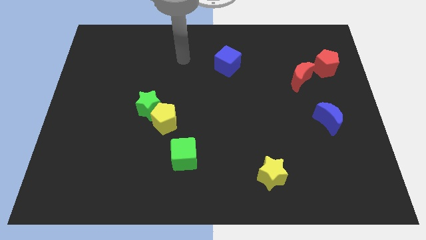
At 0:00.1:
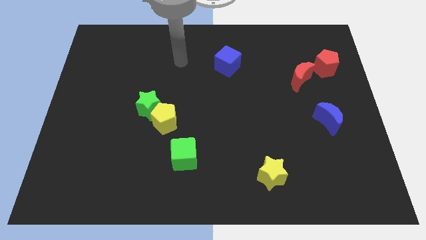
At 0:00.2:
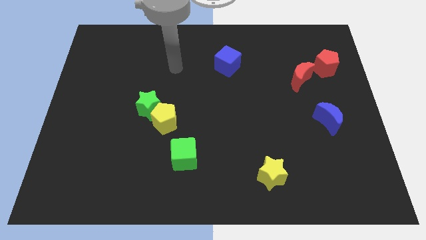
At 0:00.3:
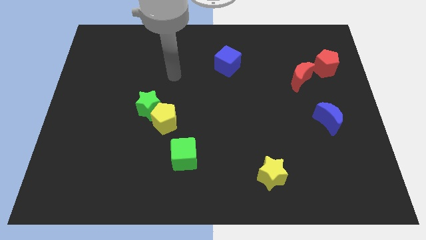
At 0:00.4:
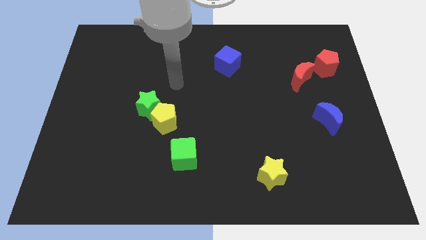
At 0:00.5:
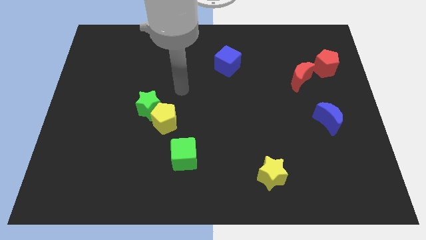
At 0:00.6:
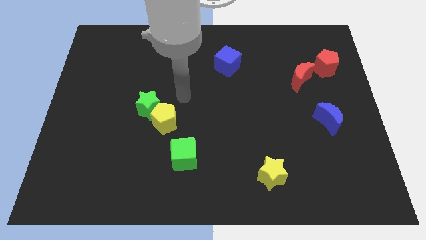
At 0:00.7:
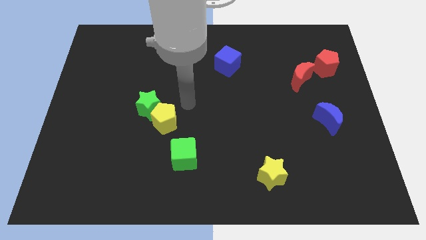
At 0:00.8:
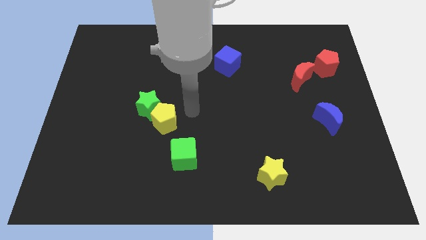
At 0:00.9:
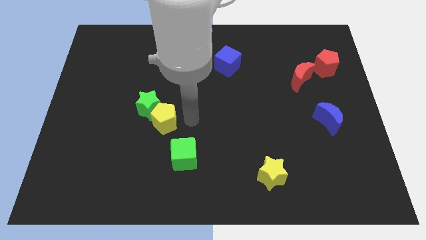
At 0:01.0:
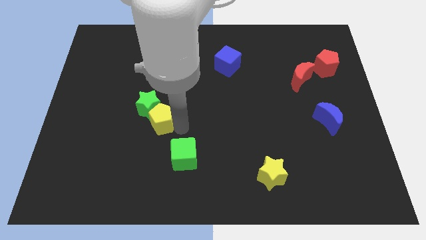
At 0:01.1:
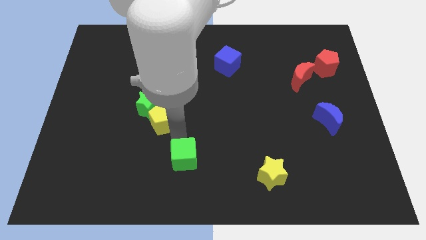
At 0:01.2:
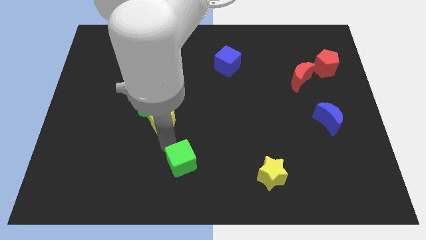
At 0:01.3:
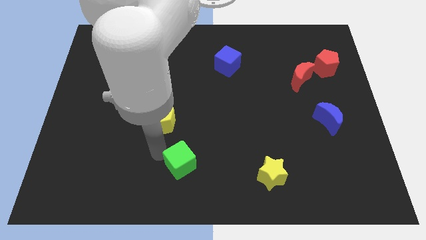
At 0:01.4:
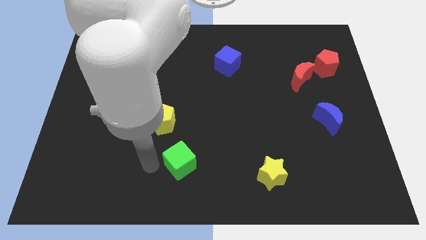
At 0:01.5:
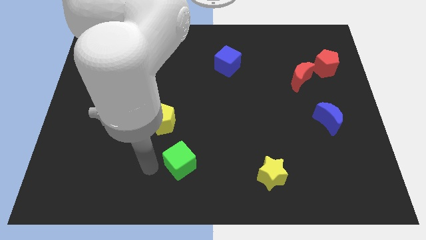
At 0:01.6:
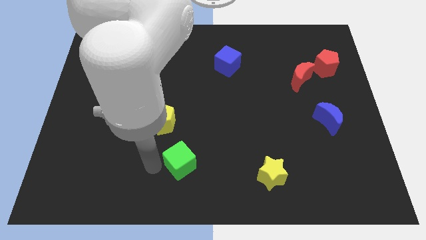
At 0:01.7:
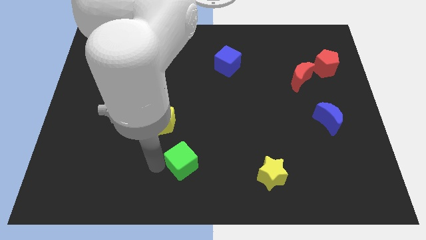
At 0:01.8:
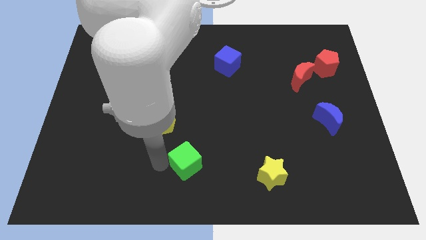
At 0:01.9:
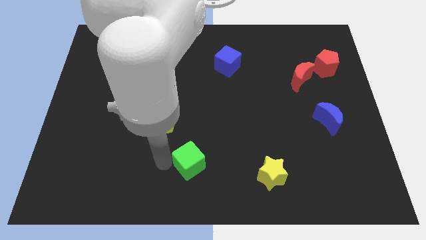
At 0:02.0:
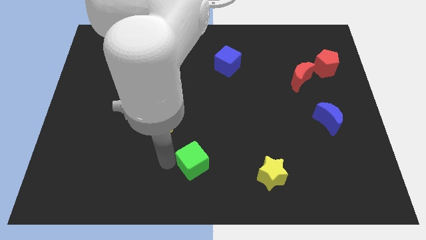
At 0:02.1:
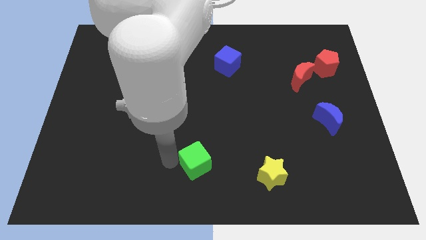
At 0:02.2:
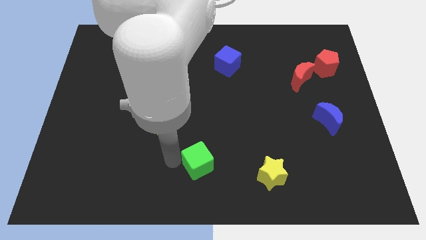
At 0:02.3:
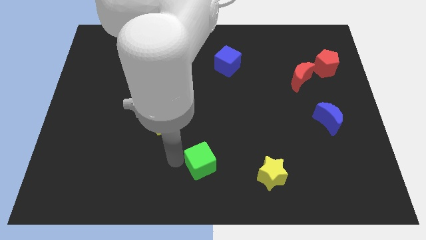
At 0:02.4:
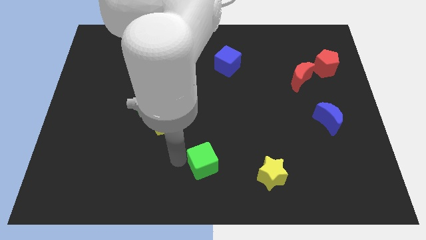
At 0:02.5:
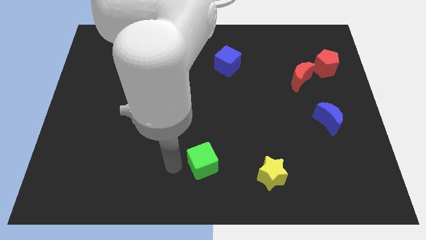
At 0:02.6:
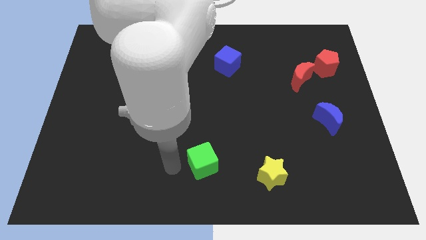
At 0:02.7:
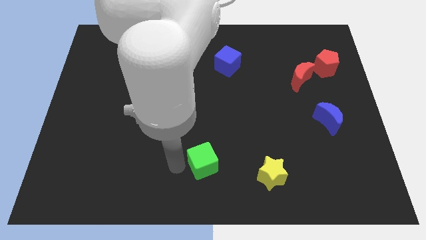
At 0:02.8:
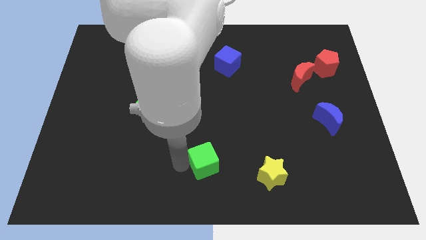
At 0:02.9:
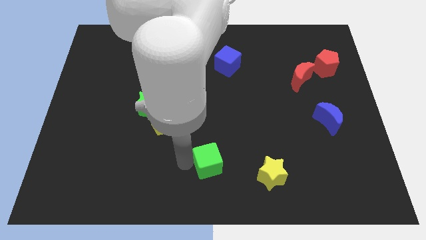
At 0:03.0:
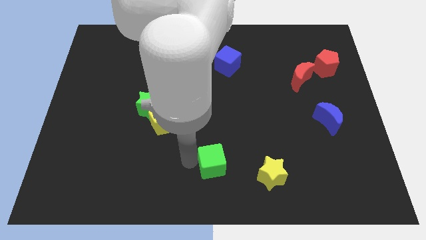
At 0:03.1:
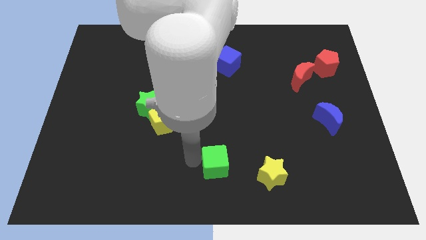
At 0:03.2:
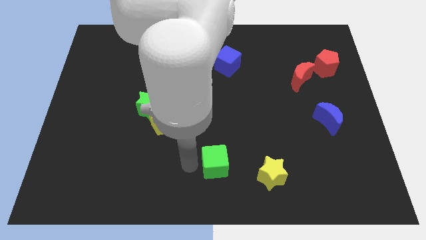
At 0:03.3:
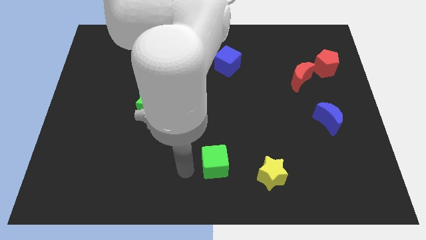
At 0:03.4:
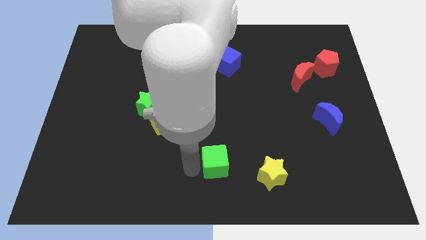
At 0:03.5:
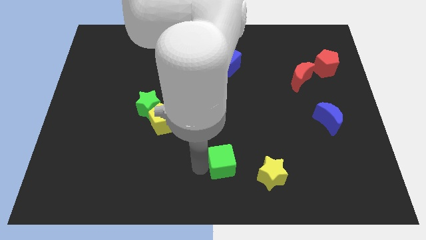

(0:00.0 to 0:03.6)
slide the green cube right a little

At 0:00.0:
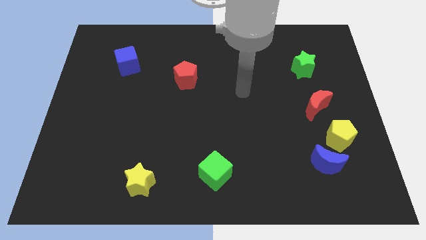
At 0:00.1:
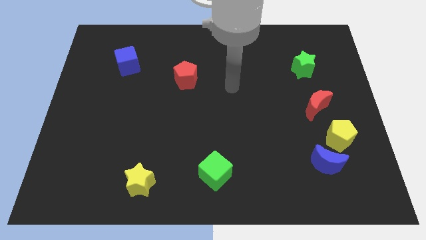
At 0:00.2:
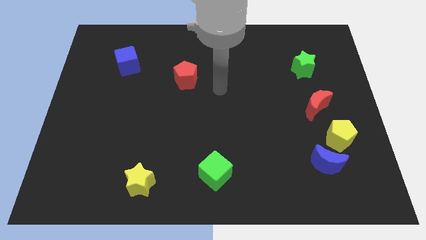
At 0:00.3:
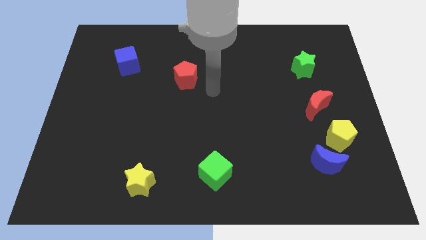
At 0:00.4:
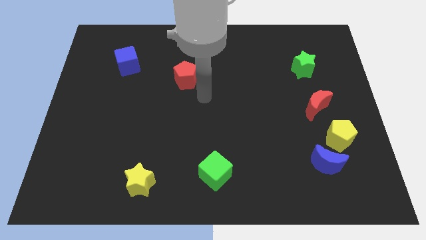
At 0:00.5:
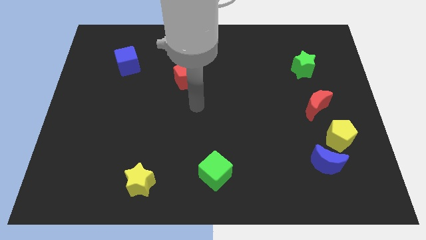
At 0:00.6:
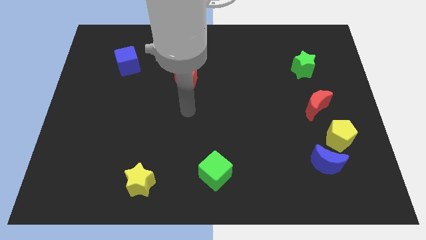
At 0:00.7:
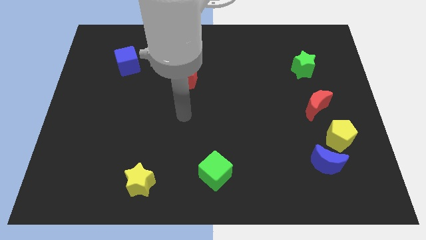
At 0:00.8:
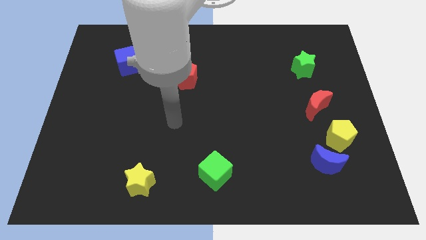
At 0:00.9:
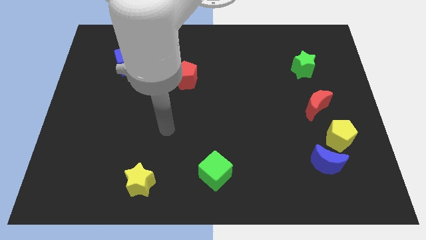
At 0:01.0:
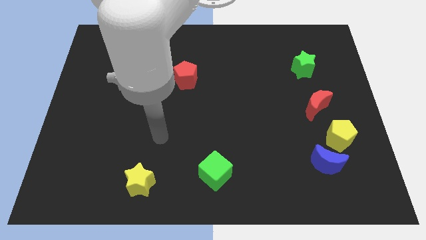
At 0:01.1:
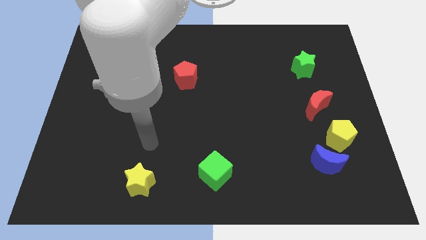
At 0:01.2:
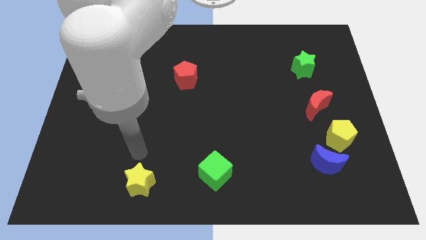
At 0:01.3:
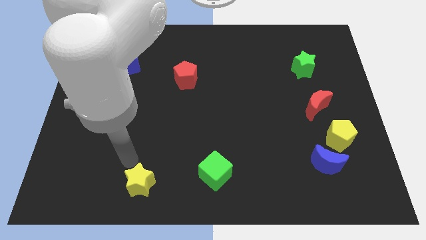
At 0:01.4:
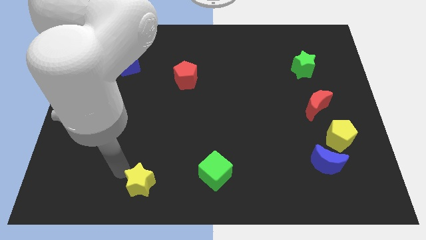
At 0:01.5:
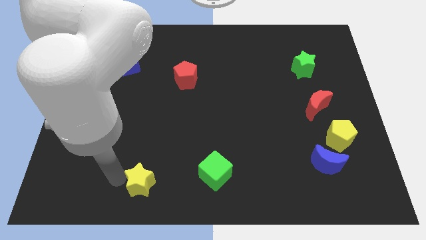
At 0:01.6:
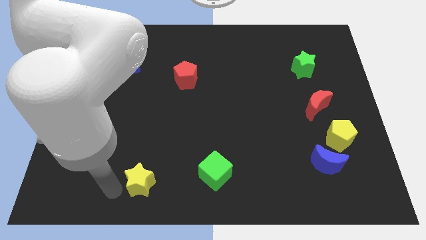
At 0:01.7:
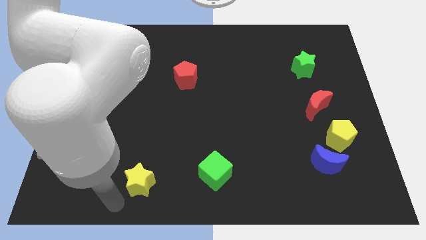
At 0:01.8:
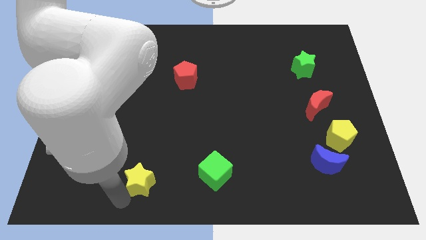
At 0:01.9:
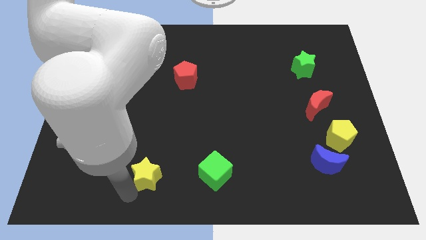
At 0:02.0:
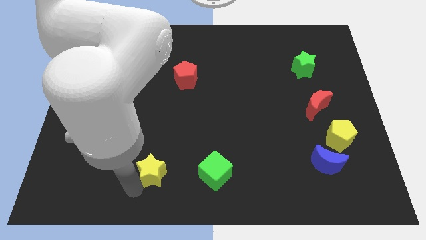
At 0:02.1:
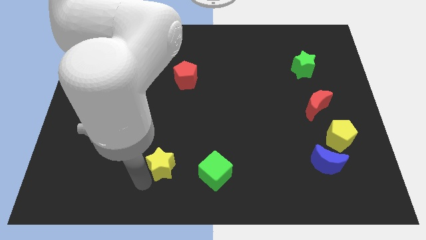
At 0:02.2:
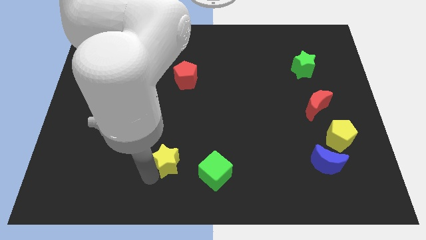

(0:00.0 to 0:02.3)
slide the yellow star upwards and then to the right a bit

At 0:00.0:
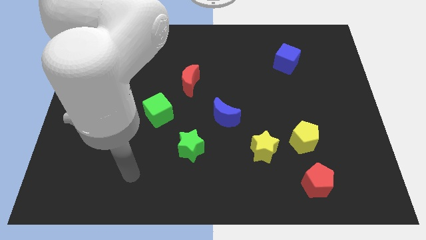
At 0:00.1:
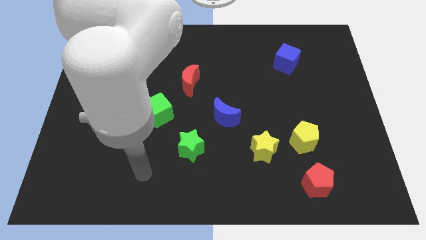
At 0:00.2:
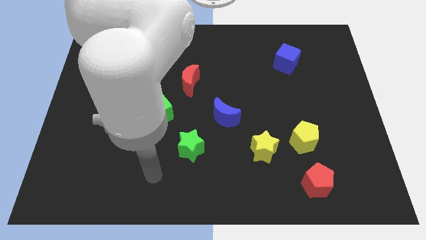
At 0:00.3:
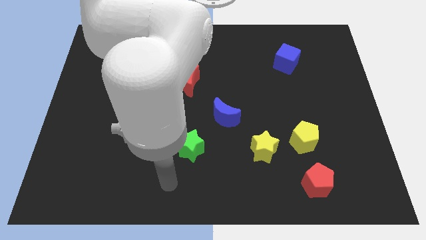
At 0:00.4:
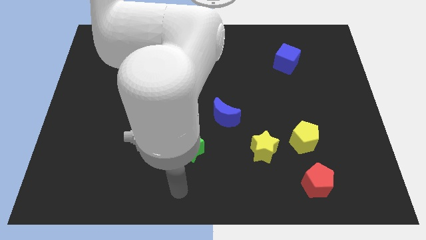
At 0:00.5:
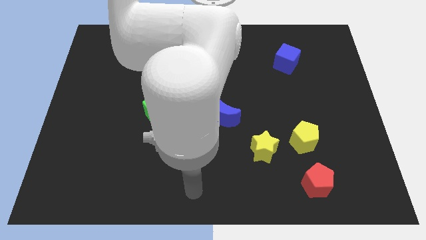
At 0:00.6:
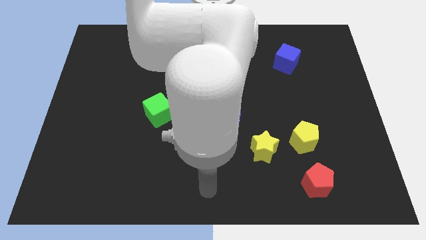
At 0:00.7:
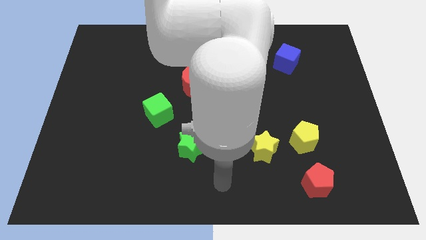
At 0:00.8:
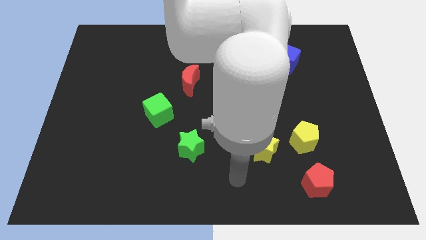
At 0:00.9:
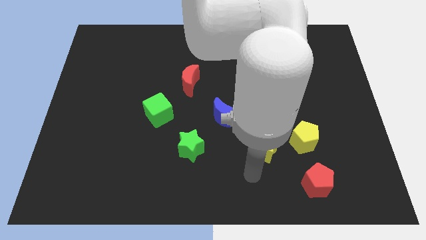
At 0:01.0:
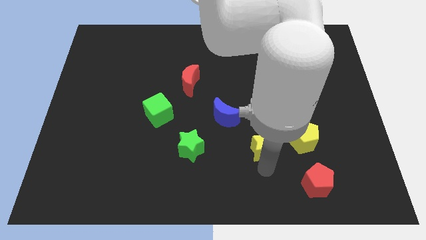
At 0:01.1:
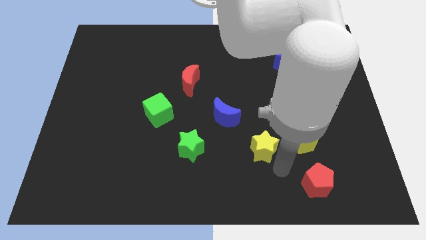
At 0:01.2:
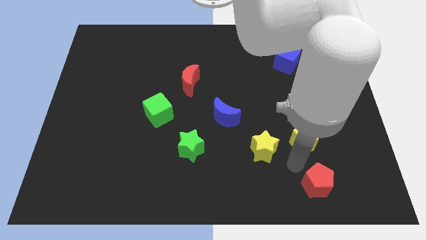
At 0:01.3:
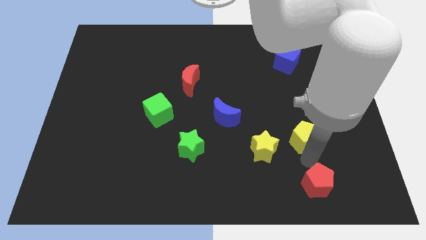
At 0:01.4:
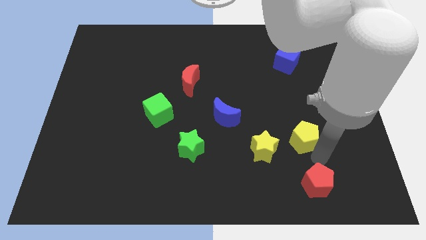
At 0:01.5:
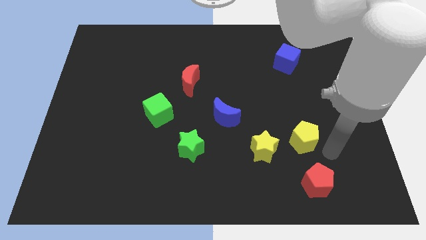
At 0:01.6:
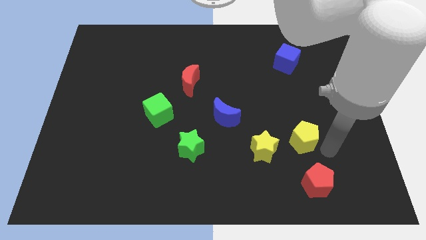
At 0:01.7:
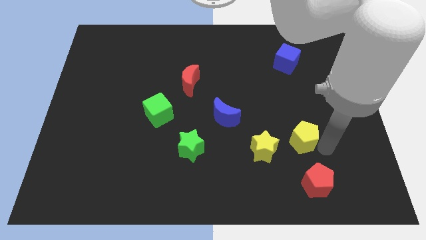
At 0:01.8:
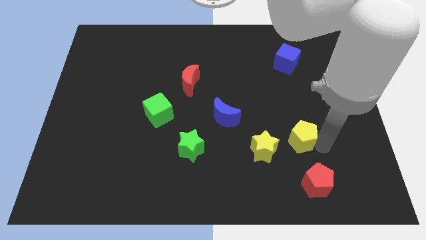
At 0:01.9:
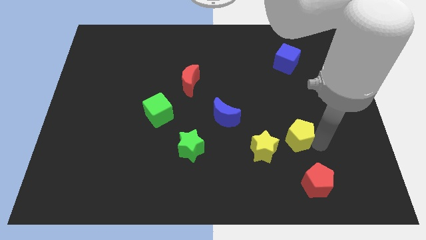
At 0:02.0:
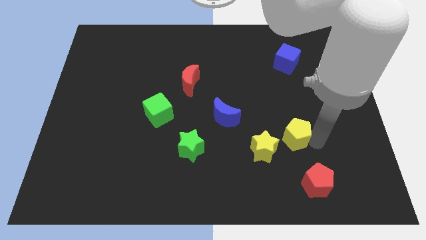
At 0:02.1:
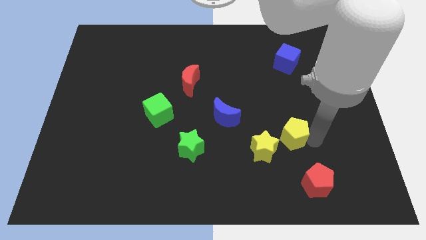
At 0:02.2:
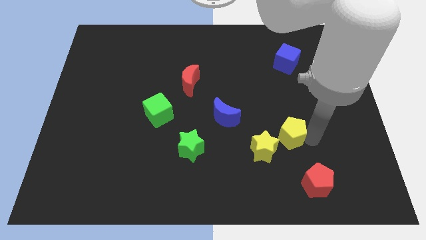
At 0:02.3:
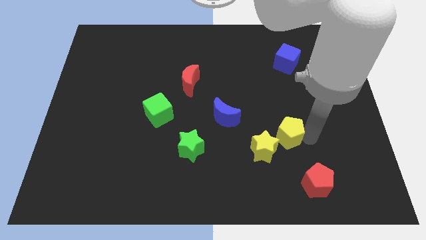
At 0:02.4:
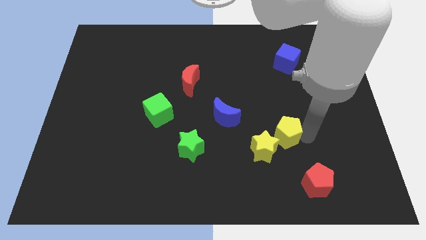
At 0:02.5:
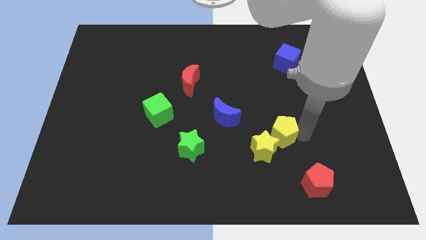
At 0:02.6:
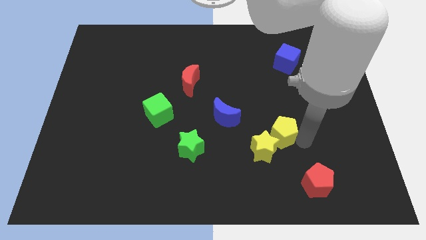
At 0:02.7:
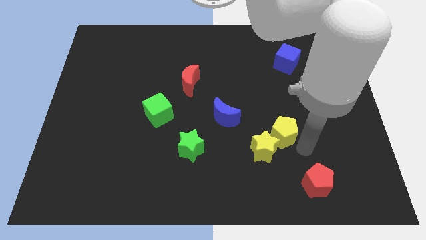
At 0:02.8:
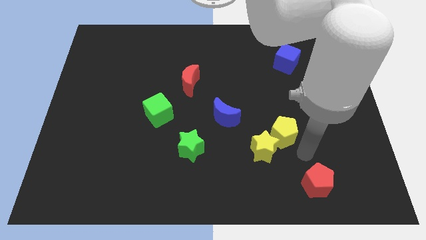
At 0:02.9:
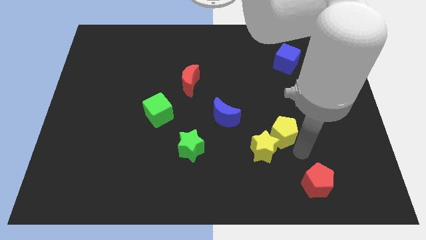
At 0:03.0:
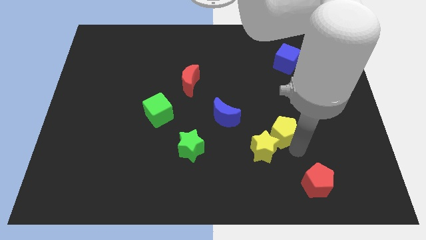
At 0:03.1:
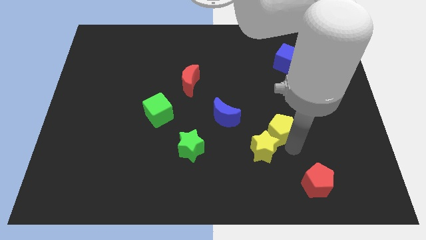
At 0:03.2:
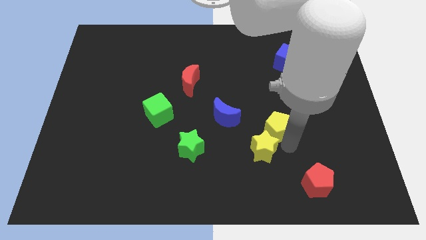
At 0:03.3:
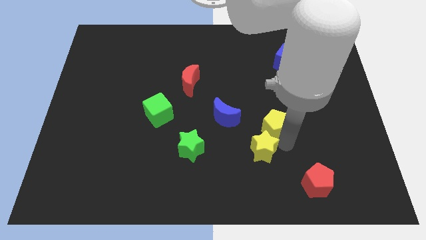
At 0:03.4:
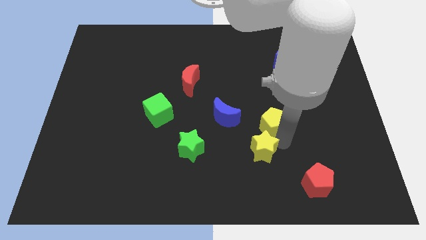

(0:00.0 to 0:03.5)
slightly push the yellow pentagon upwards and then to the left
